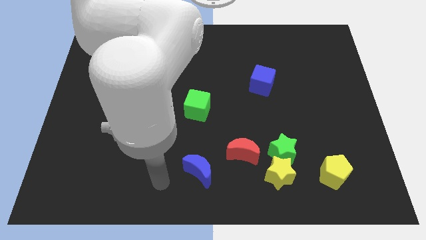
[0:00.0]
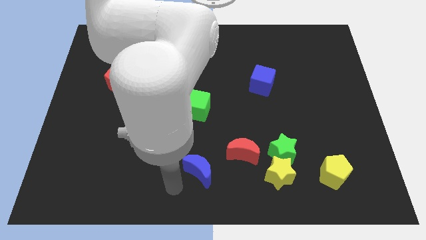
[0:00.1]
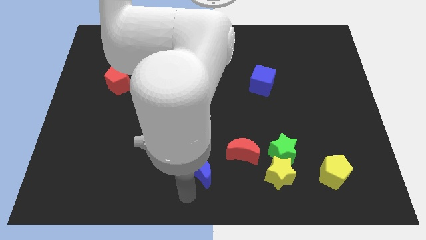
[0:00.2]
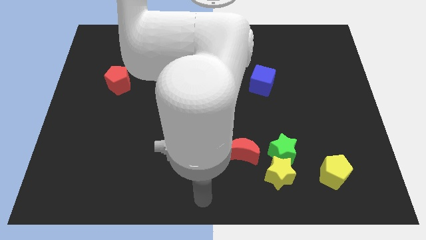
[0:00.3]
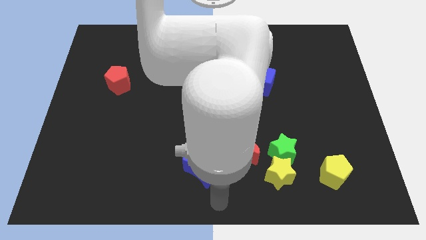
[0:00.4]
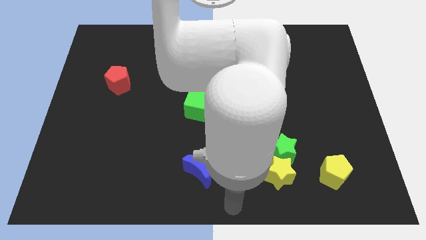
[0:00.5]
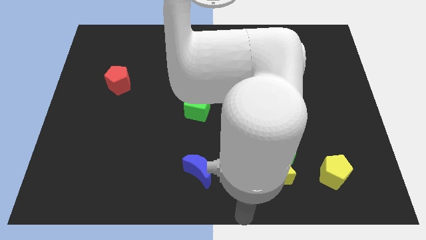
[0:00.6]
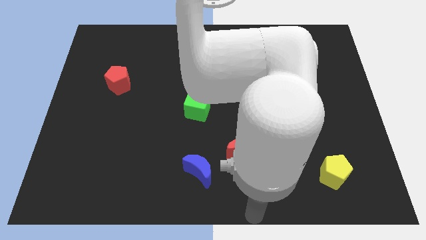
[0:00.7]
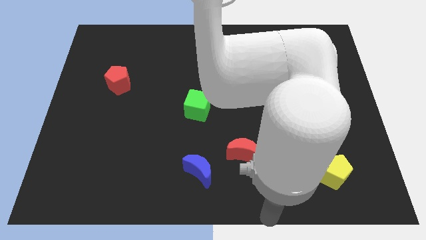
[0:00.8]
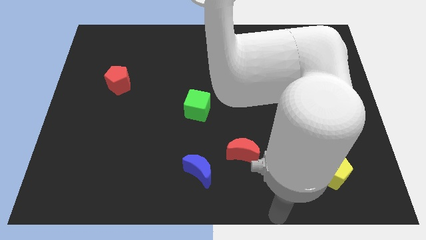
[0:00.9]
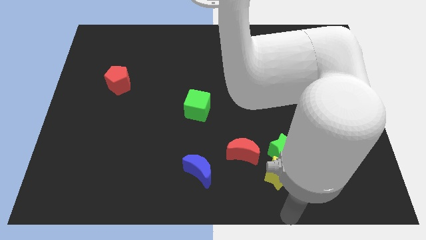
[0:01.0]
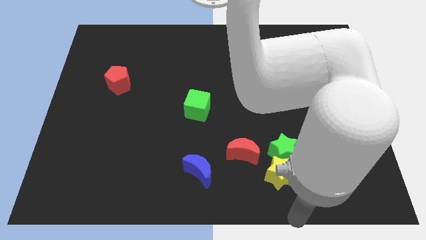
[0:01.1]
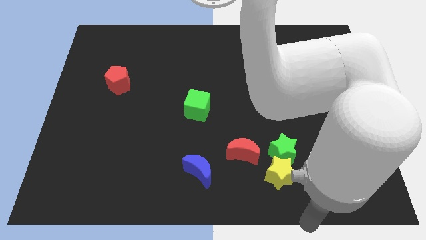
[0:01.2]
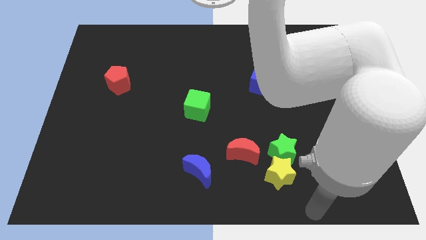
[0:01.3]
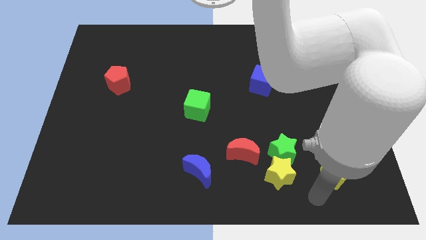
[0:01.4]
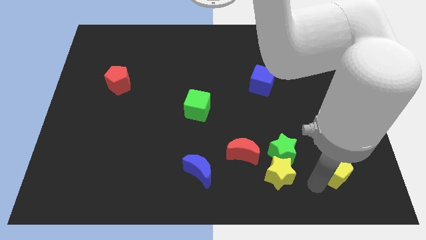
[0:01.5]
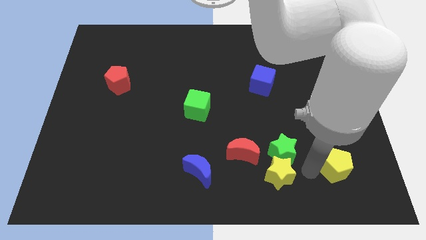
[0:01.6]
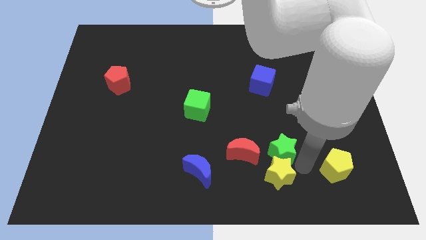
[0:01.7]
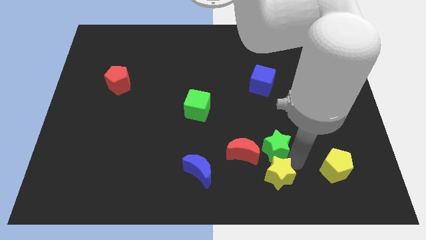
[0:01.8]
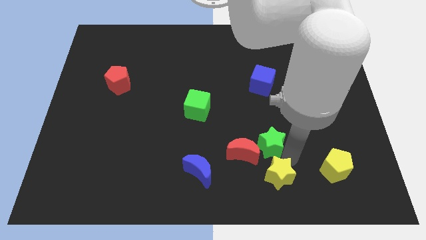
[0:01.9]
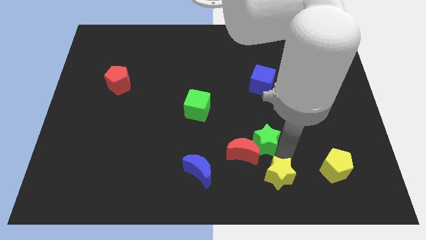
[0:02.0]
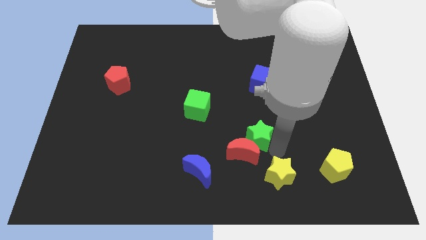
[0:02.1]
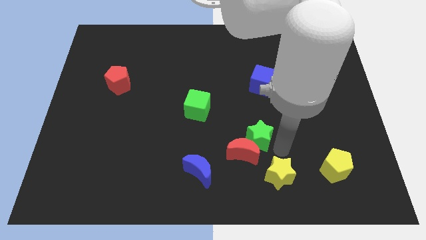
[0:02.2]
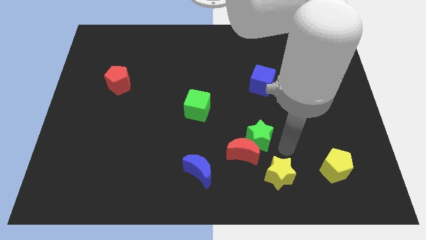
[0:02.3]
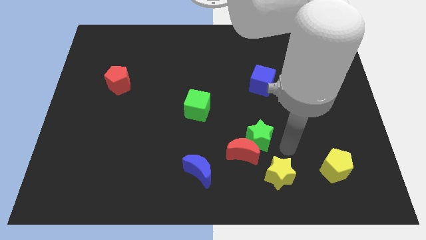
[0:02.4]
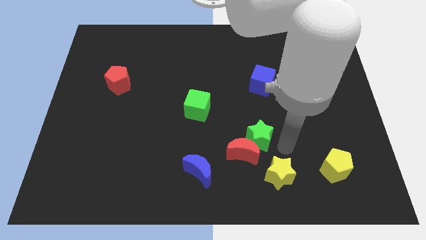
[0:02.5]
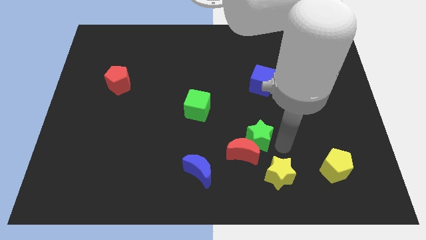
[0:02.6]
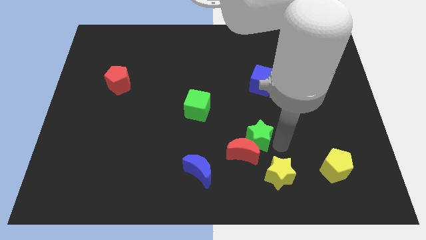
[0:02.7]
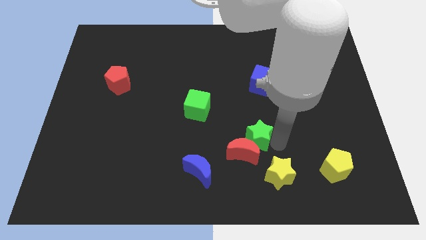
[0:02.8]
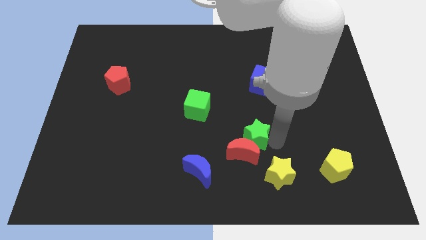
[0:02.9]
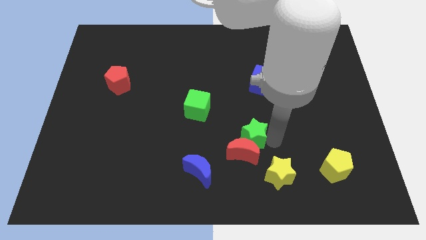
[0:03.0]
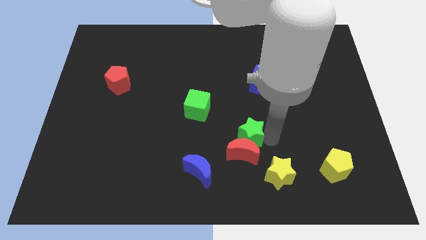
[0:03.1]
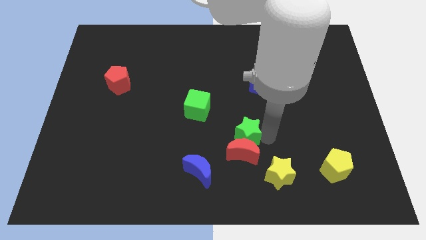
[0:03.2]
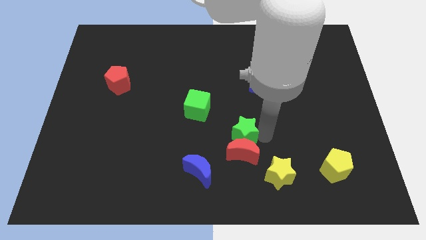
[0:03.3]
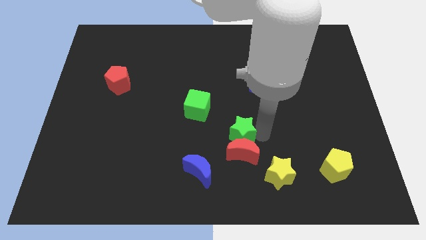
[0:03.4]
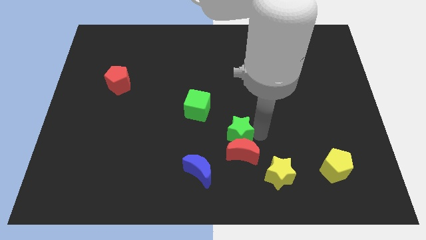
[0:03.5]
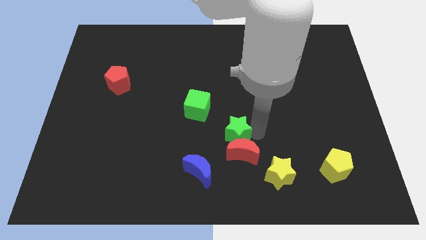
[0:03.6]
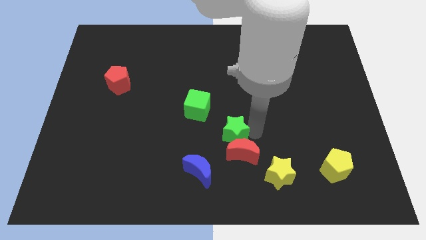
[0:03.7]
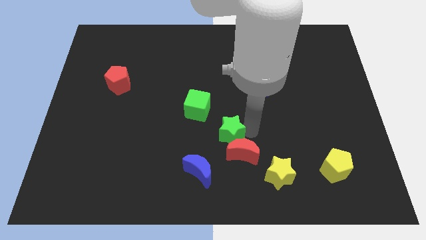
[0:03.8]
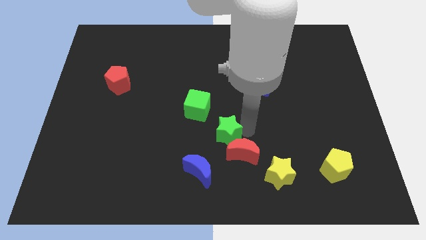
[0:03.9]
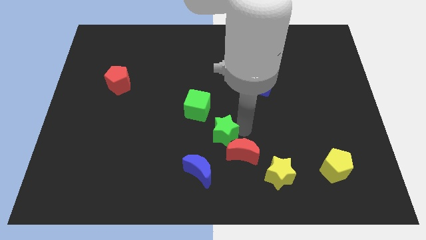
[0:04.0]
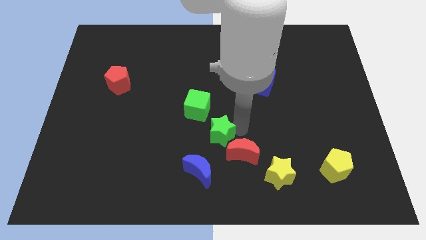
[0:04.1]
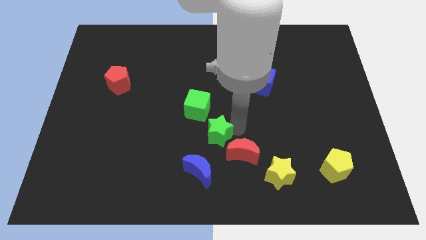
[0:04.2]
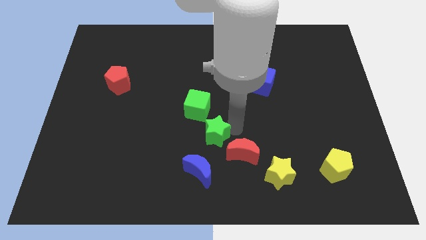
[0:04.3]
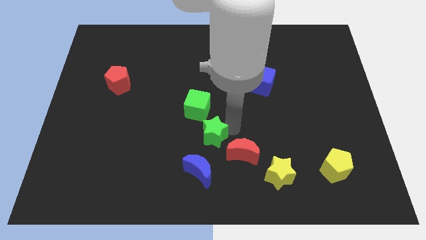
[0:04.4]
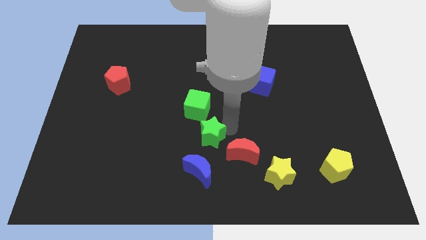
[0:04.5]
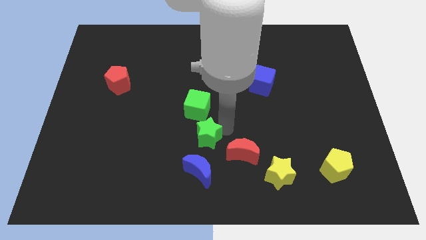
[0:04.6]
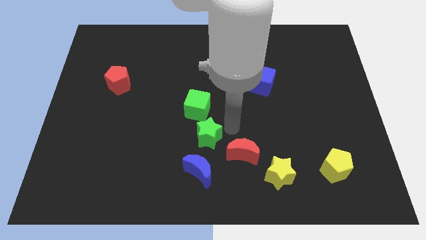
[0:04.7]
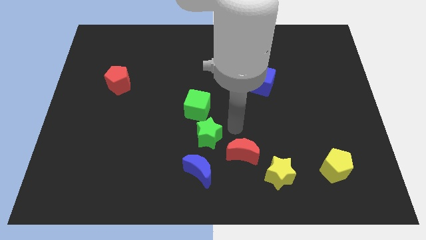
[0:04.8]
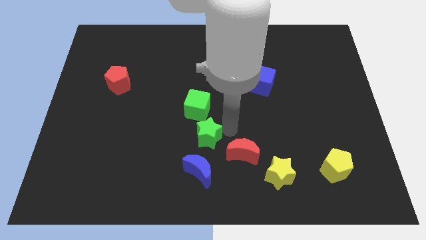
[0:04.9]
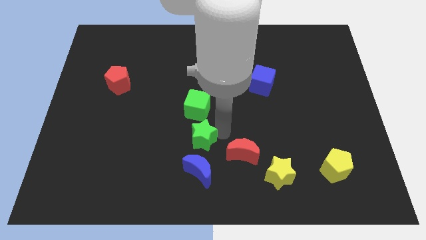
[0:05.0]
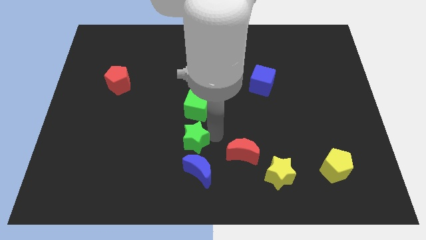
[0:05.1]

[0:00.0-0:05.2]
move the green star to the top left of the blue moon

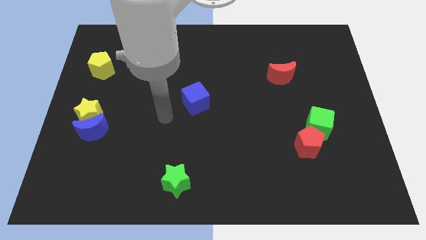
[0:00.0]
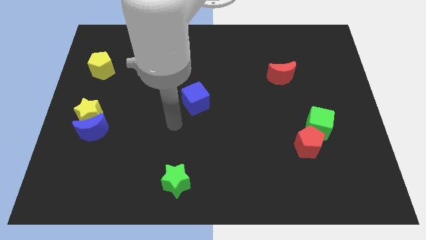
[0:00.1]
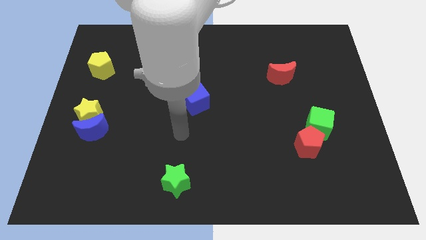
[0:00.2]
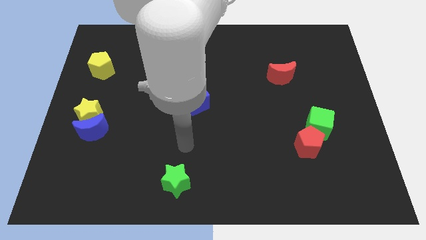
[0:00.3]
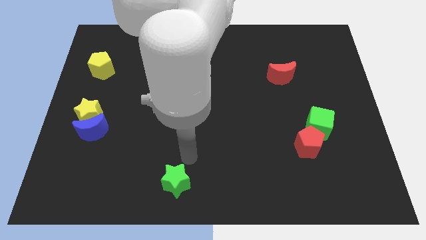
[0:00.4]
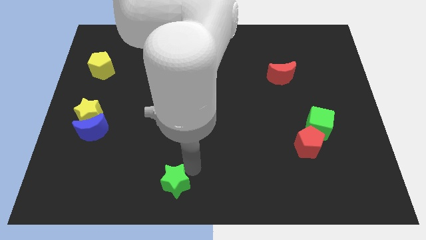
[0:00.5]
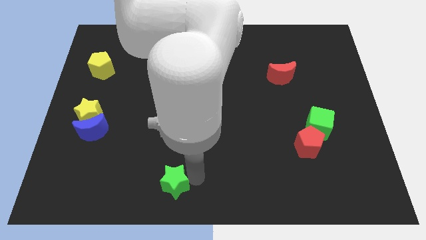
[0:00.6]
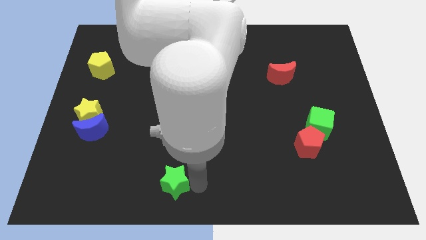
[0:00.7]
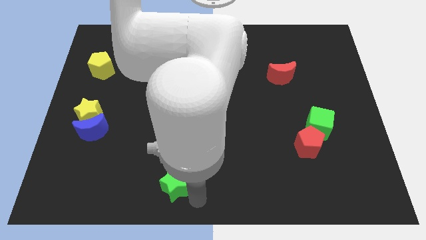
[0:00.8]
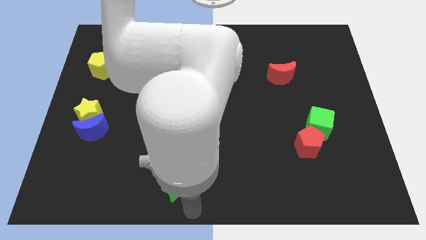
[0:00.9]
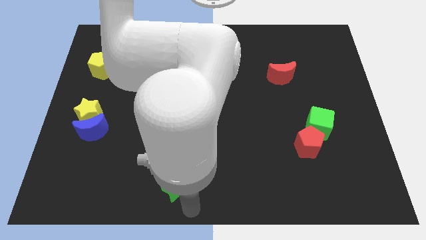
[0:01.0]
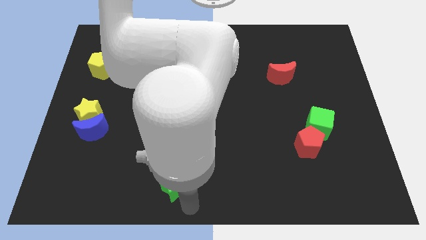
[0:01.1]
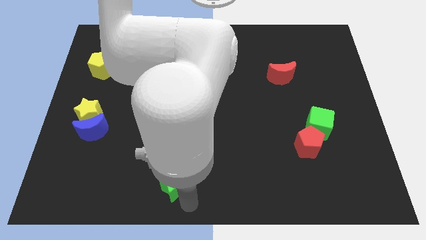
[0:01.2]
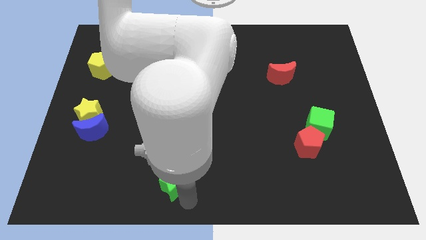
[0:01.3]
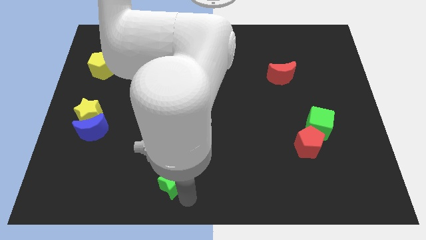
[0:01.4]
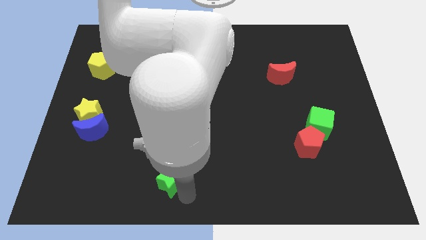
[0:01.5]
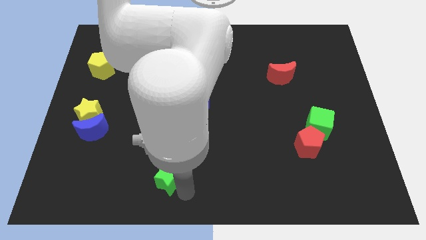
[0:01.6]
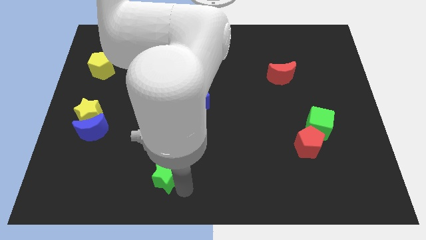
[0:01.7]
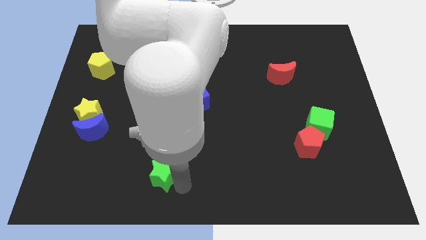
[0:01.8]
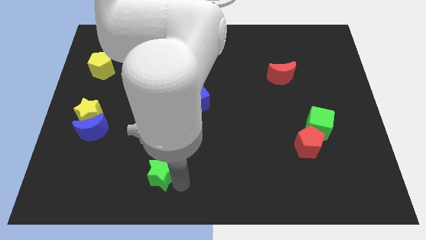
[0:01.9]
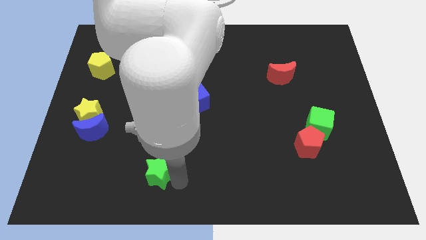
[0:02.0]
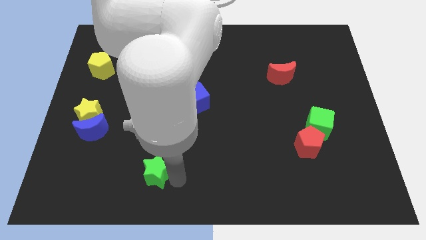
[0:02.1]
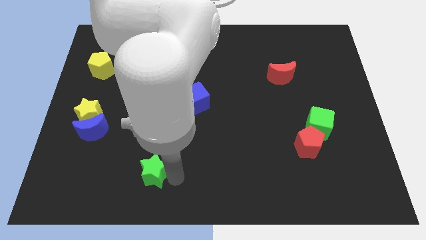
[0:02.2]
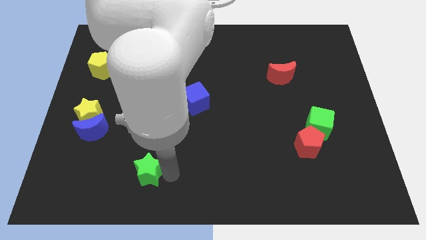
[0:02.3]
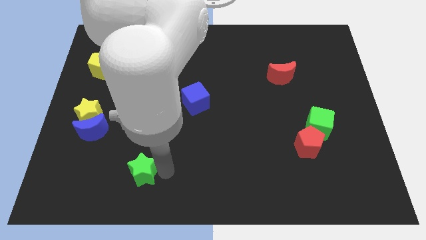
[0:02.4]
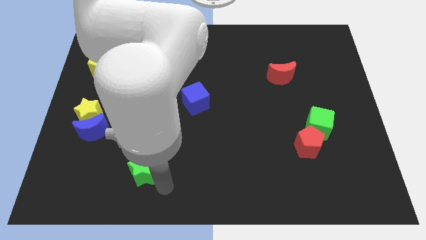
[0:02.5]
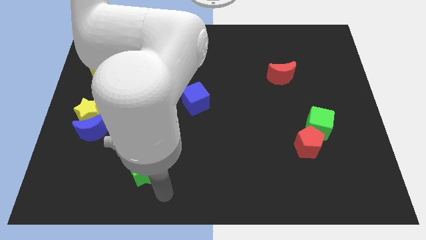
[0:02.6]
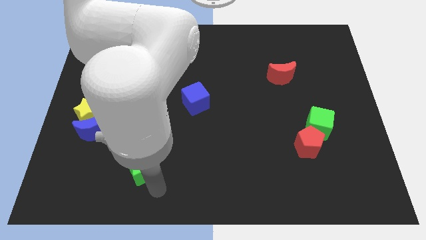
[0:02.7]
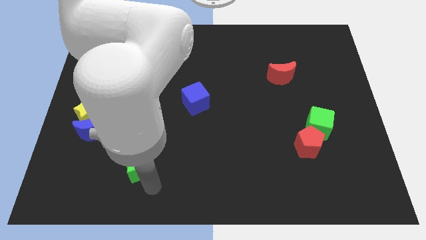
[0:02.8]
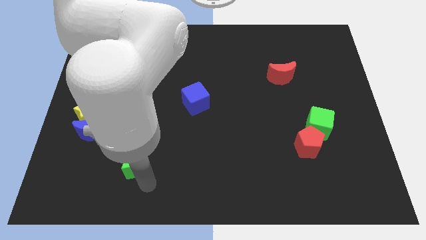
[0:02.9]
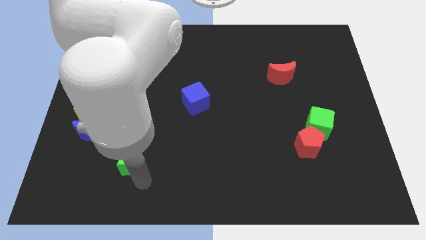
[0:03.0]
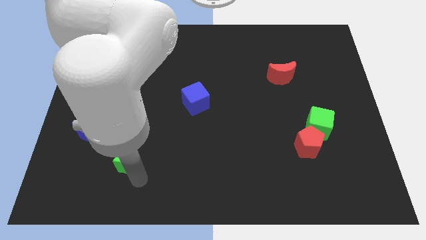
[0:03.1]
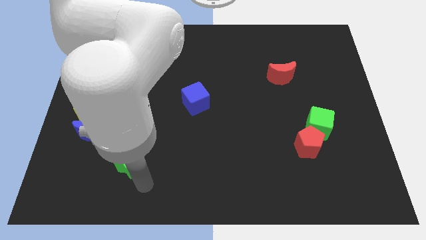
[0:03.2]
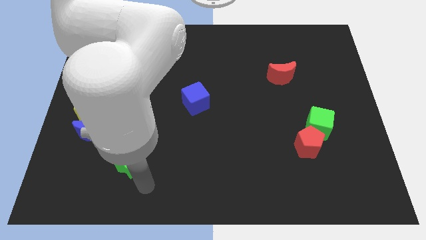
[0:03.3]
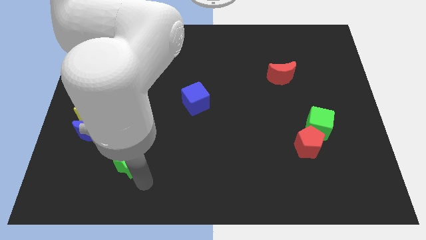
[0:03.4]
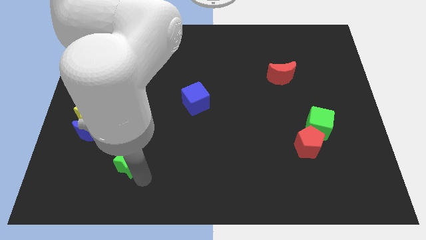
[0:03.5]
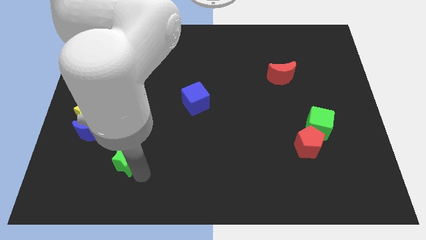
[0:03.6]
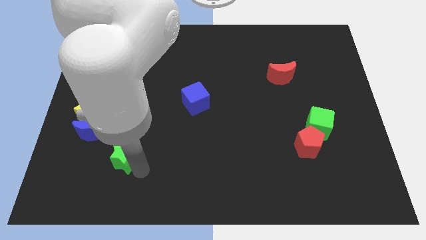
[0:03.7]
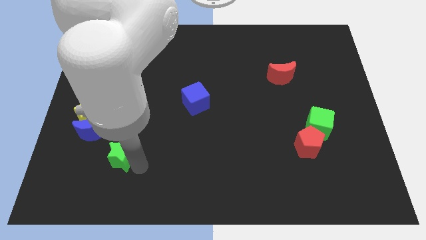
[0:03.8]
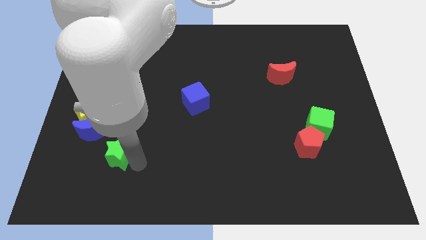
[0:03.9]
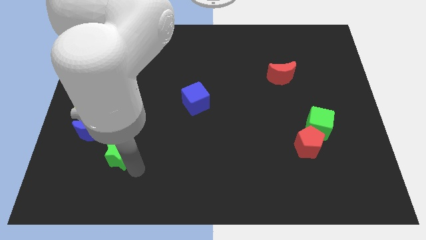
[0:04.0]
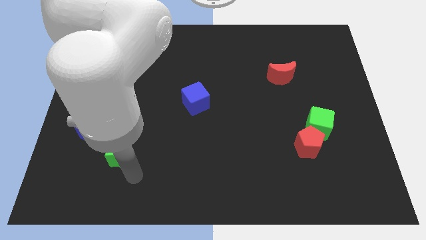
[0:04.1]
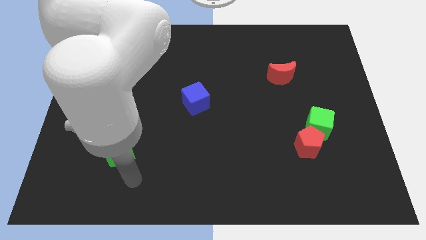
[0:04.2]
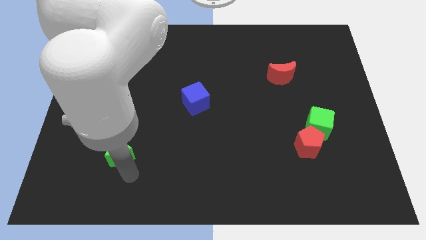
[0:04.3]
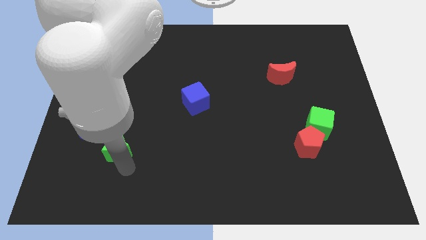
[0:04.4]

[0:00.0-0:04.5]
slide the green star diagonally down and to the right of the yellow star
